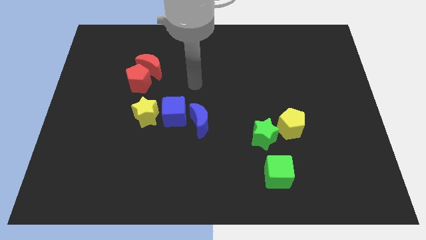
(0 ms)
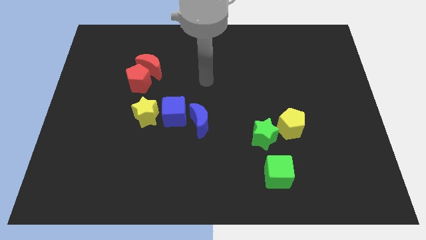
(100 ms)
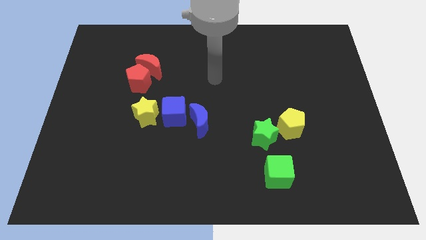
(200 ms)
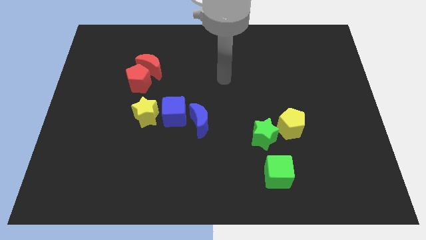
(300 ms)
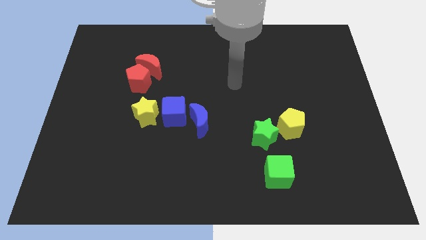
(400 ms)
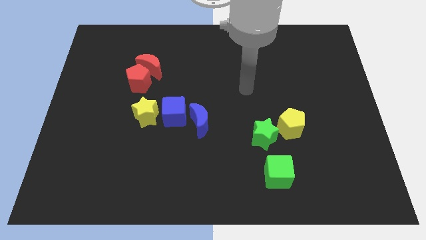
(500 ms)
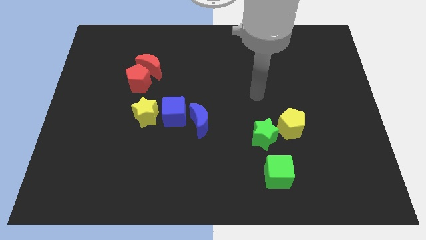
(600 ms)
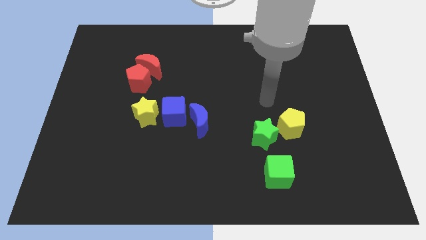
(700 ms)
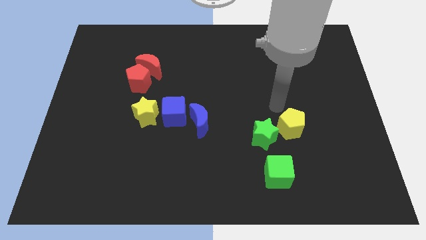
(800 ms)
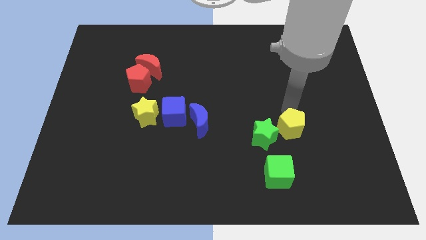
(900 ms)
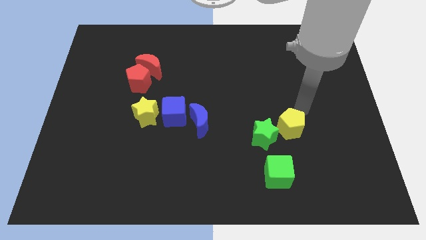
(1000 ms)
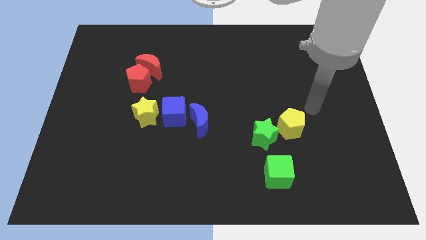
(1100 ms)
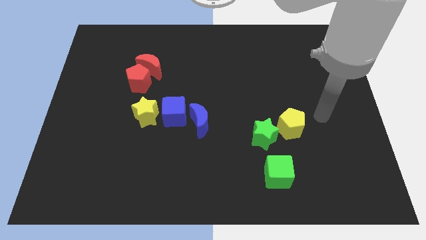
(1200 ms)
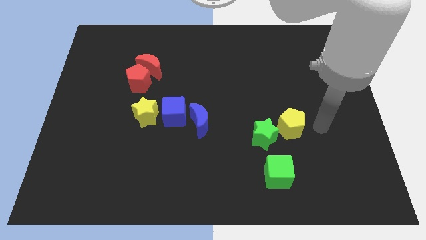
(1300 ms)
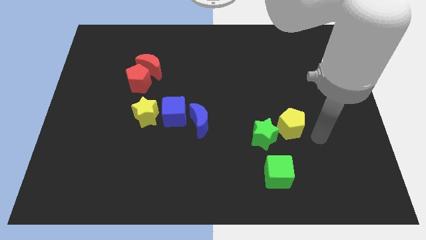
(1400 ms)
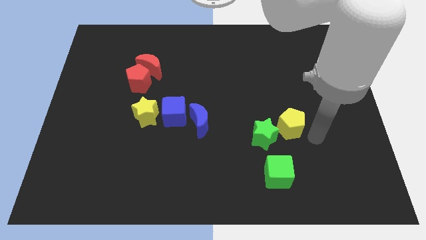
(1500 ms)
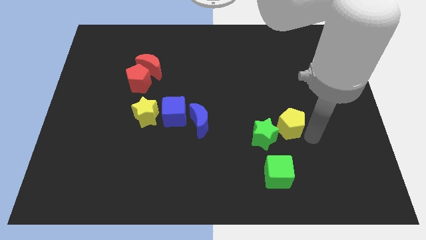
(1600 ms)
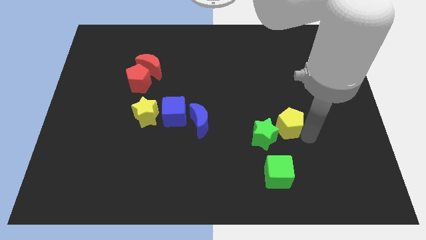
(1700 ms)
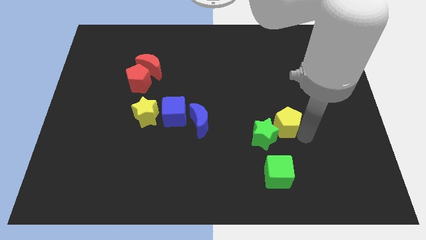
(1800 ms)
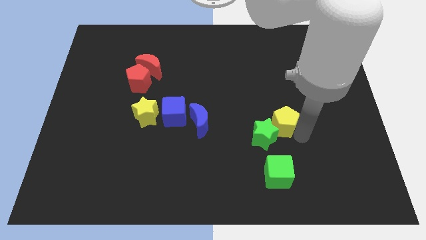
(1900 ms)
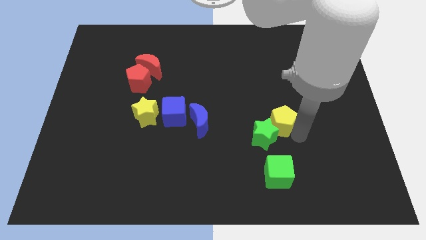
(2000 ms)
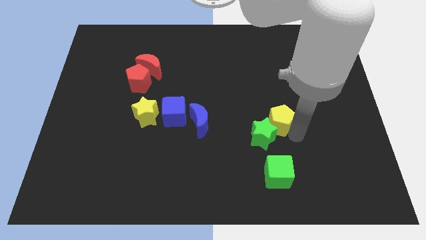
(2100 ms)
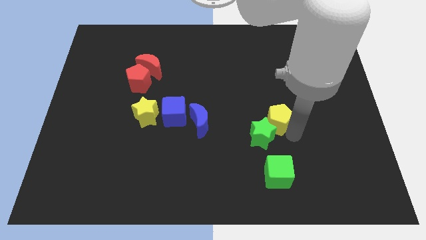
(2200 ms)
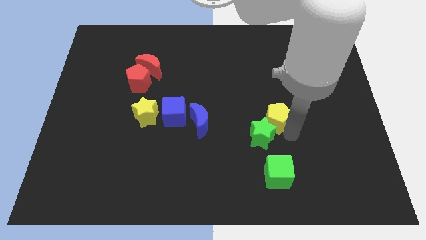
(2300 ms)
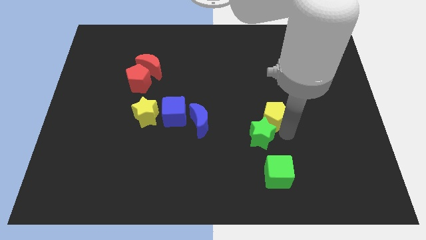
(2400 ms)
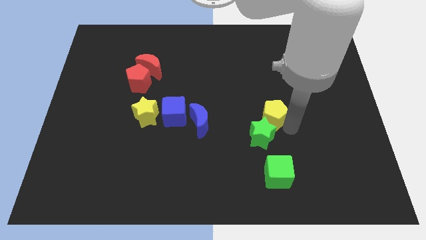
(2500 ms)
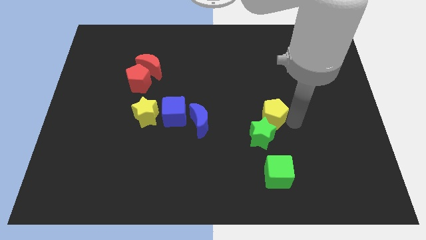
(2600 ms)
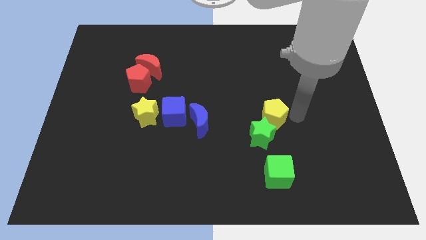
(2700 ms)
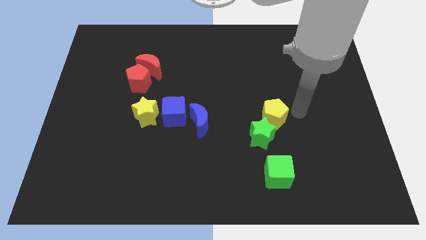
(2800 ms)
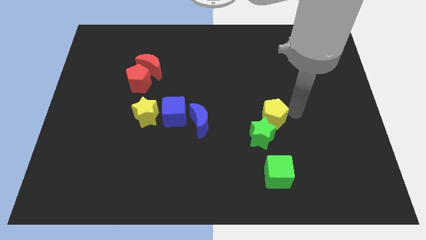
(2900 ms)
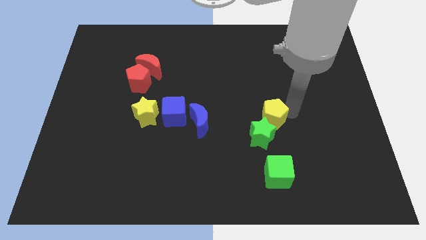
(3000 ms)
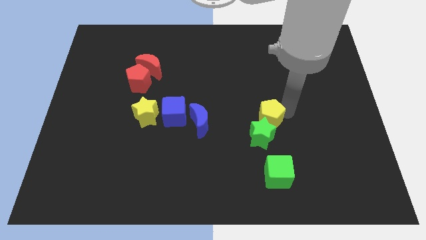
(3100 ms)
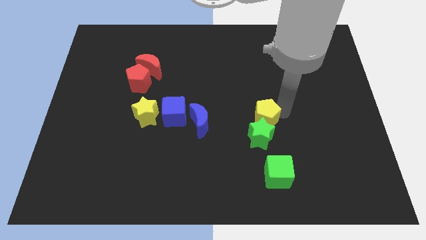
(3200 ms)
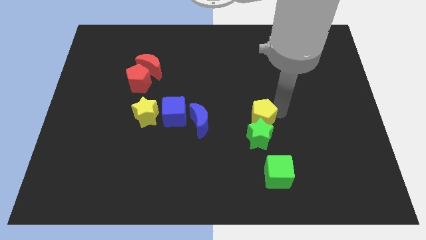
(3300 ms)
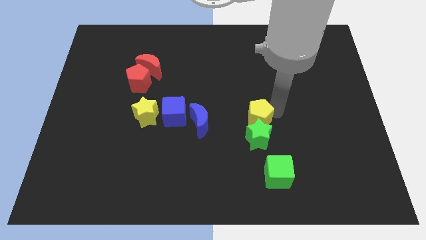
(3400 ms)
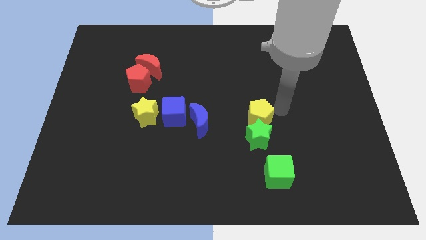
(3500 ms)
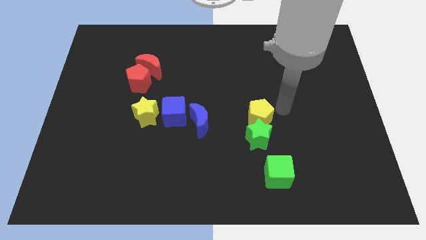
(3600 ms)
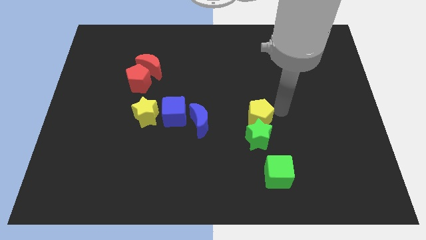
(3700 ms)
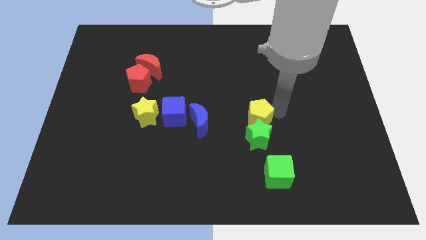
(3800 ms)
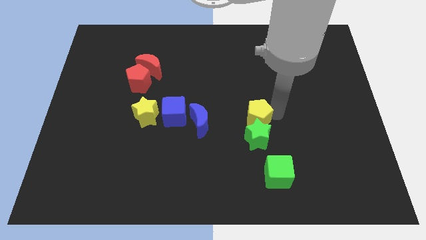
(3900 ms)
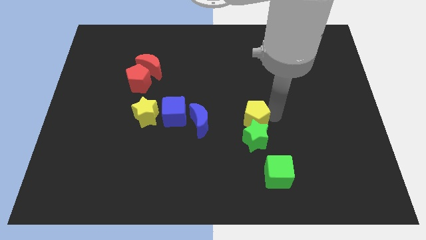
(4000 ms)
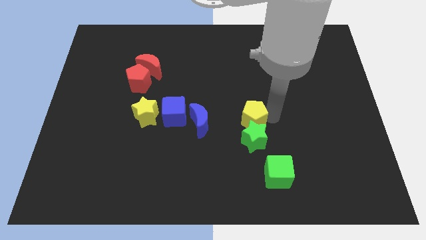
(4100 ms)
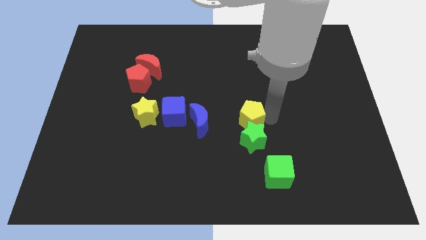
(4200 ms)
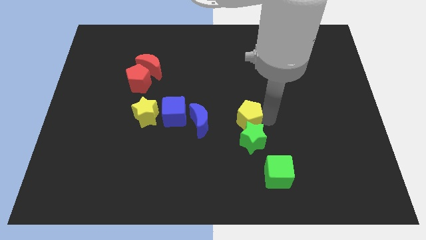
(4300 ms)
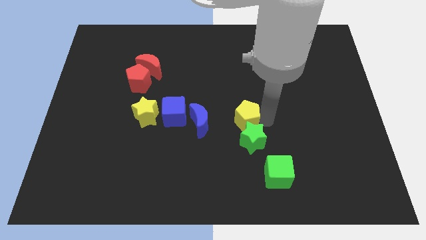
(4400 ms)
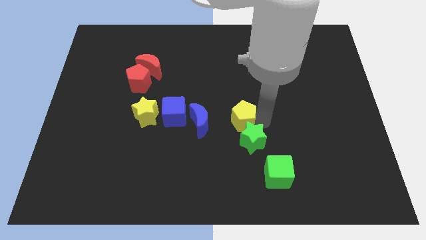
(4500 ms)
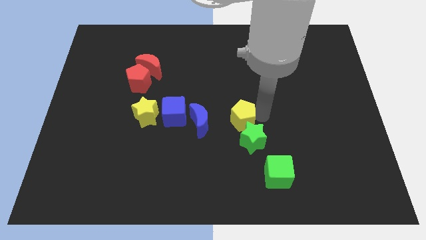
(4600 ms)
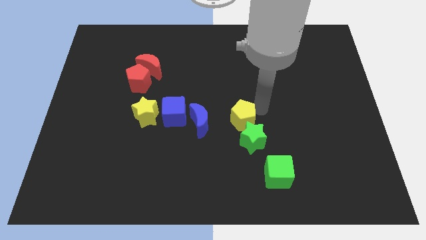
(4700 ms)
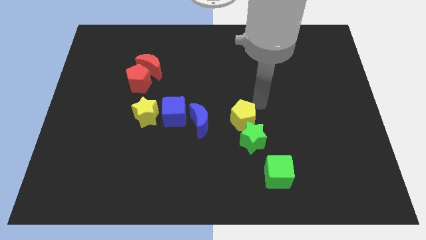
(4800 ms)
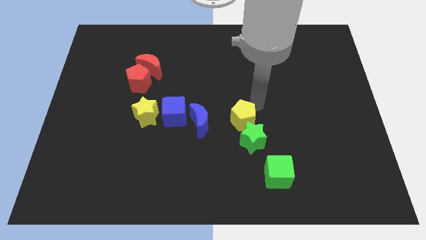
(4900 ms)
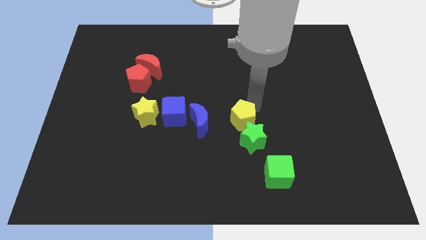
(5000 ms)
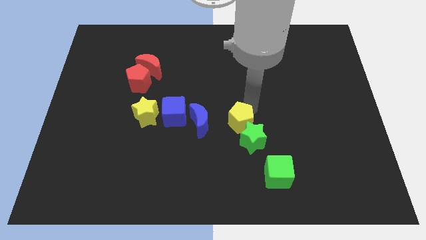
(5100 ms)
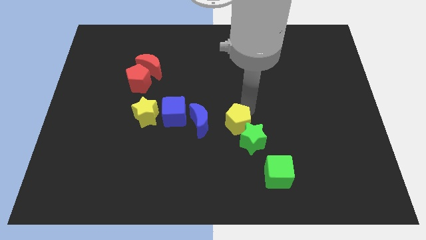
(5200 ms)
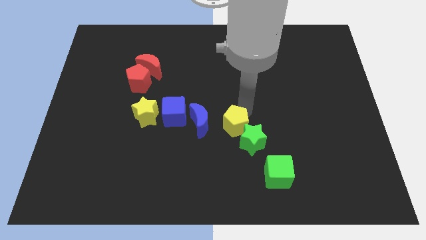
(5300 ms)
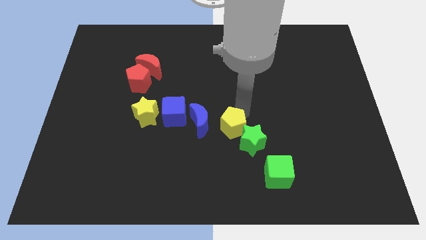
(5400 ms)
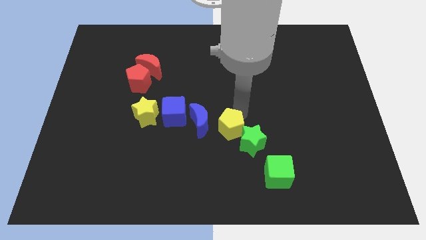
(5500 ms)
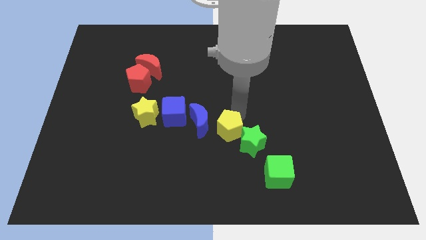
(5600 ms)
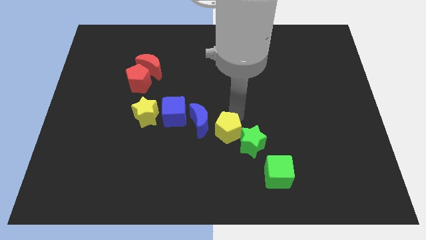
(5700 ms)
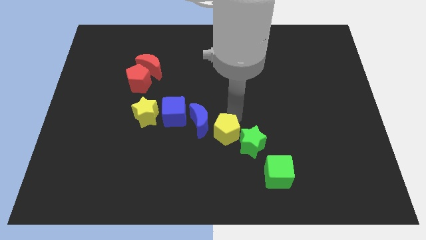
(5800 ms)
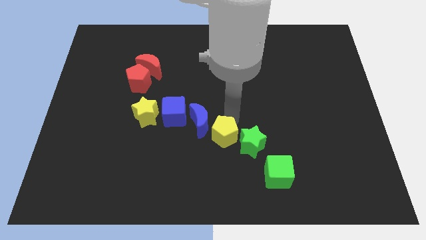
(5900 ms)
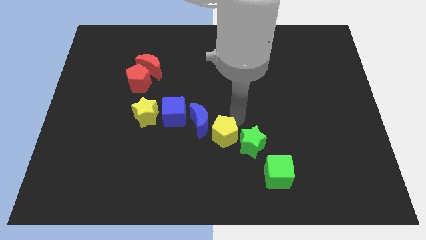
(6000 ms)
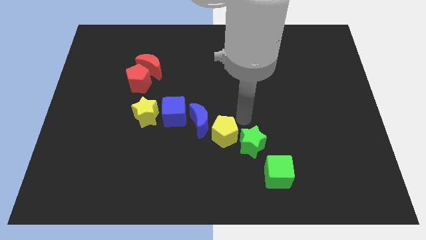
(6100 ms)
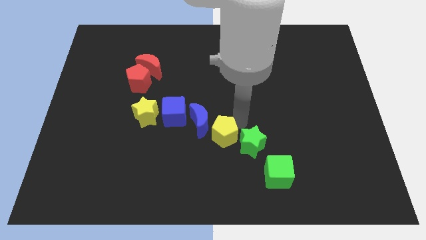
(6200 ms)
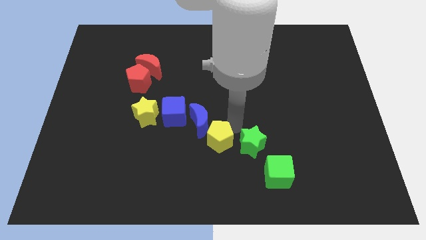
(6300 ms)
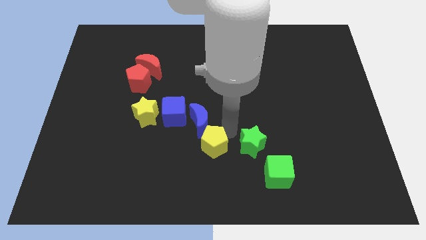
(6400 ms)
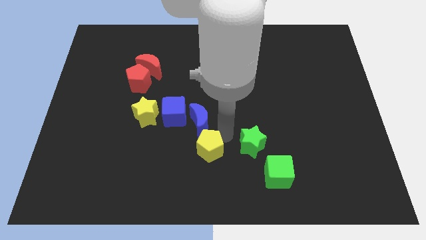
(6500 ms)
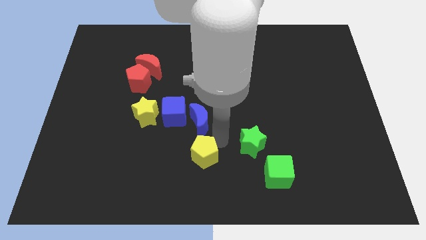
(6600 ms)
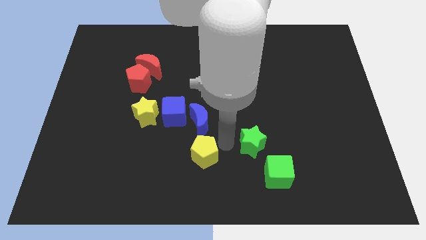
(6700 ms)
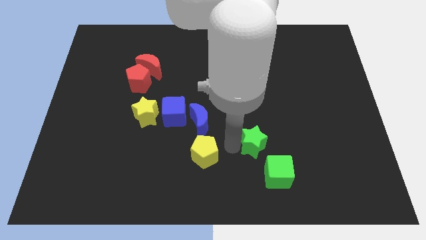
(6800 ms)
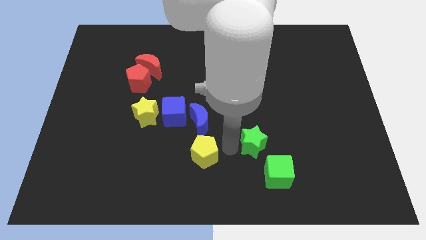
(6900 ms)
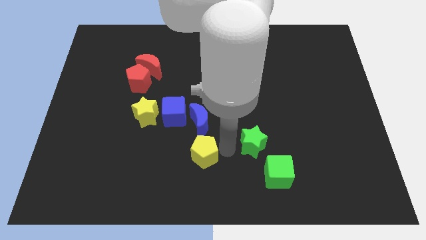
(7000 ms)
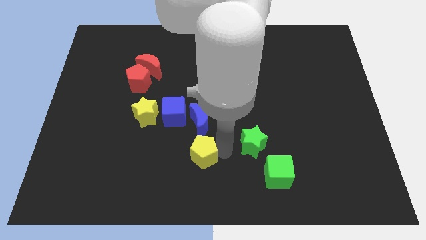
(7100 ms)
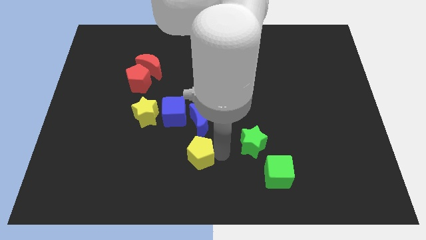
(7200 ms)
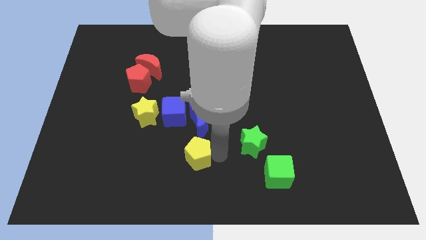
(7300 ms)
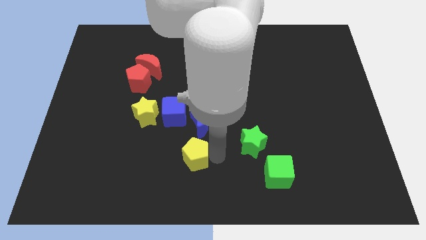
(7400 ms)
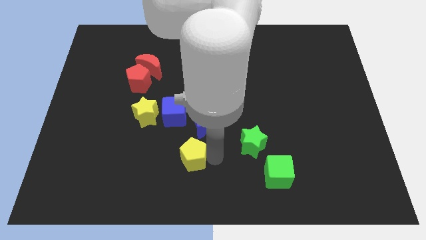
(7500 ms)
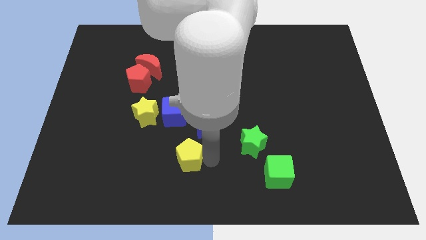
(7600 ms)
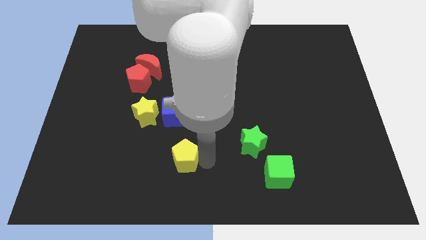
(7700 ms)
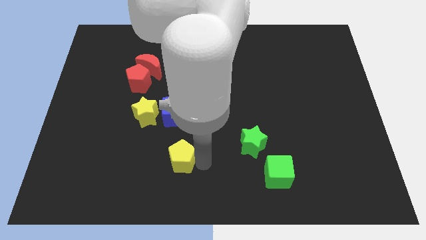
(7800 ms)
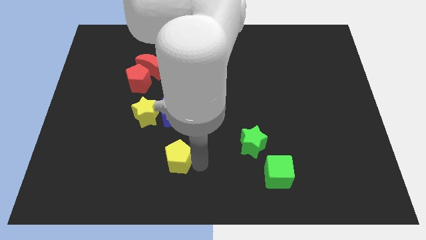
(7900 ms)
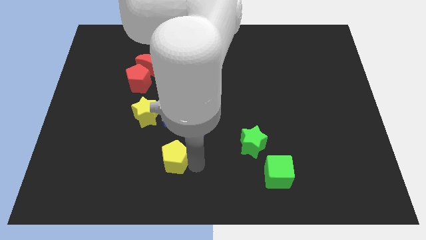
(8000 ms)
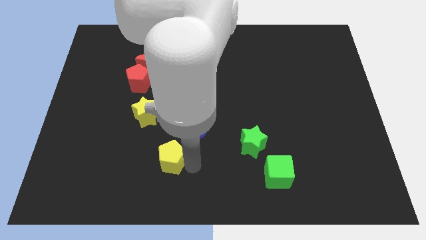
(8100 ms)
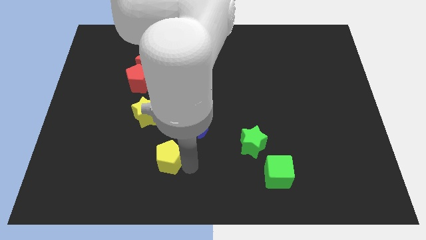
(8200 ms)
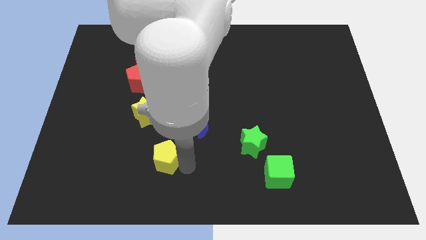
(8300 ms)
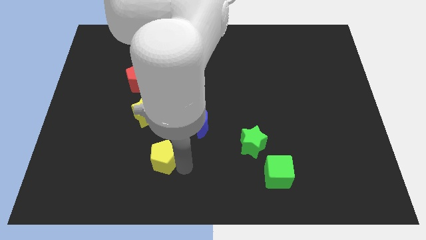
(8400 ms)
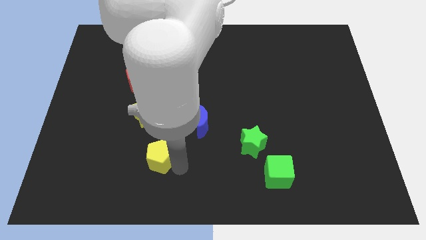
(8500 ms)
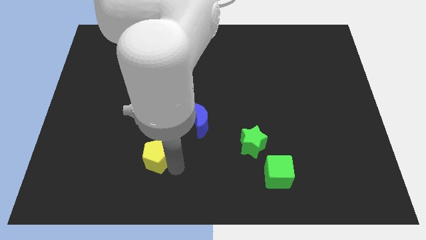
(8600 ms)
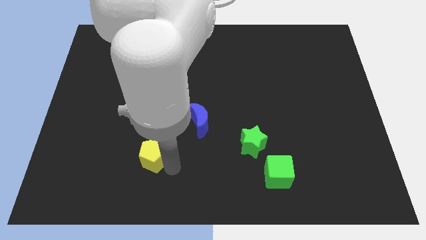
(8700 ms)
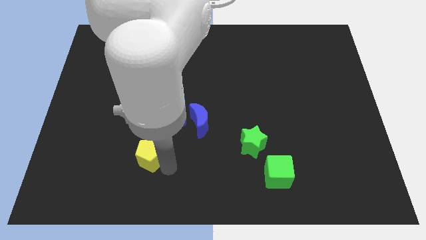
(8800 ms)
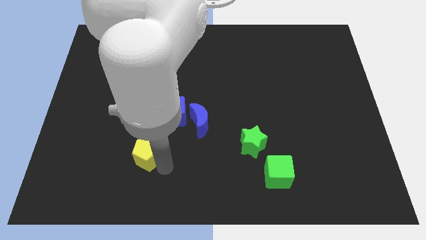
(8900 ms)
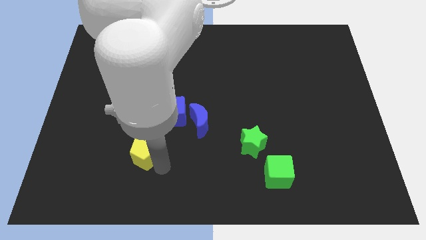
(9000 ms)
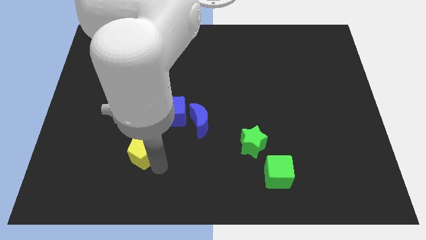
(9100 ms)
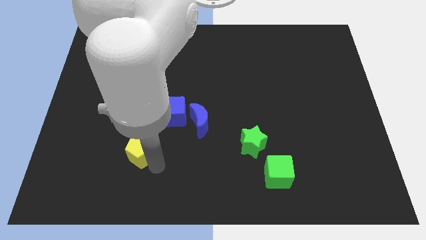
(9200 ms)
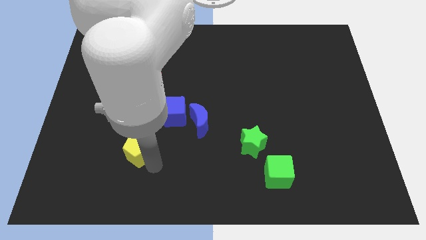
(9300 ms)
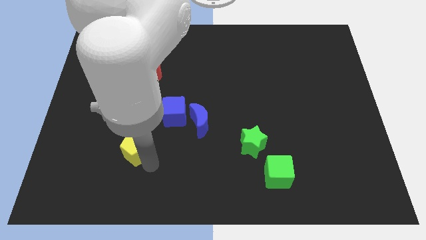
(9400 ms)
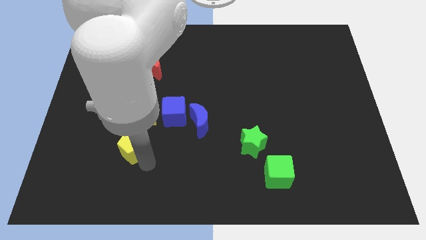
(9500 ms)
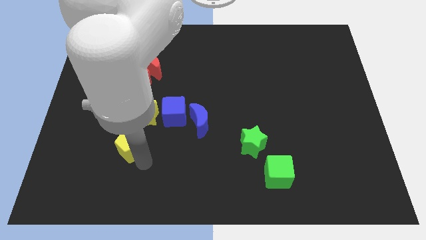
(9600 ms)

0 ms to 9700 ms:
move the yellow pentagon to the bottom left side of the yellow star
